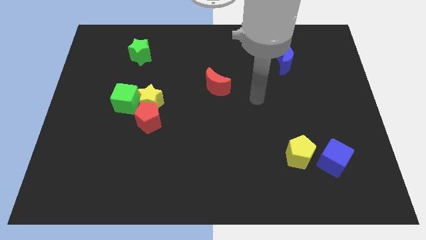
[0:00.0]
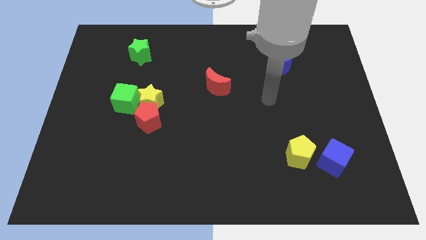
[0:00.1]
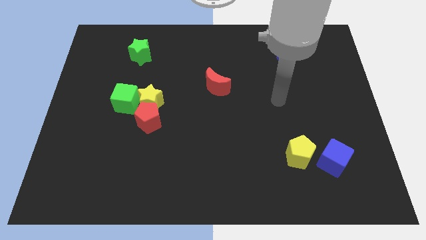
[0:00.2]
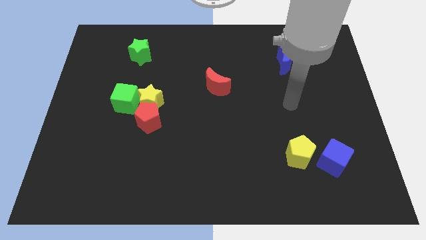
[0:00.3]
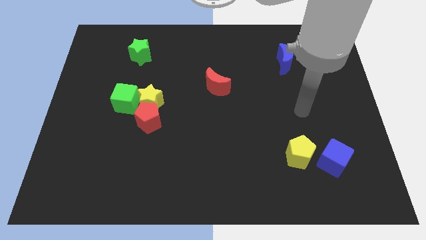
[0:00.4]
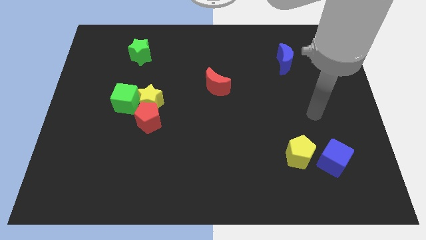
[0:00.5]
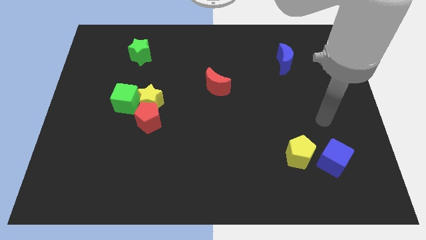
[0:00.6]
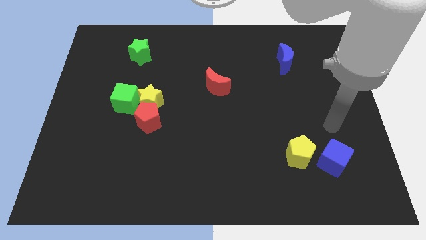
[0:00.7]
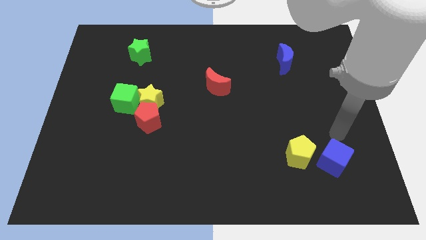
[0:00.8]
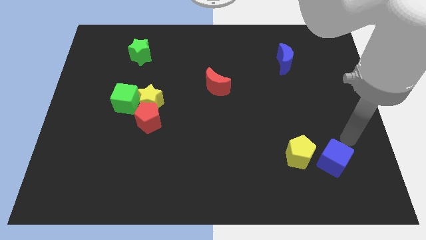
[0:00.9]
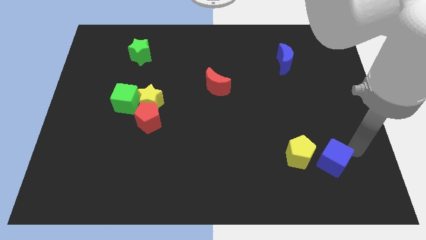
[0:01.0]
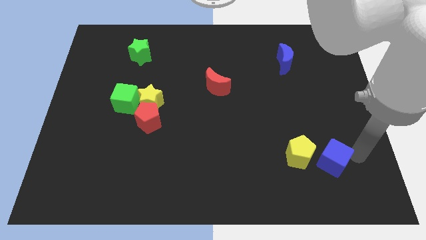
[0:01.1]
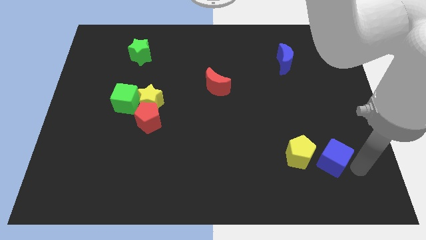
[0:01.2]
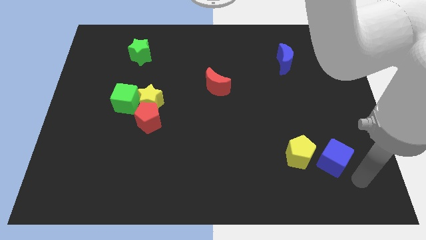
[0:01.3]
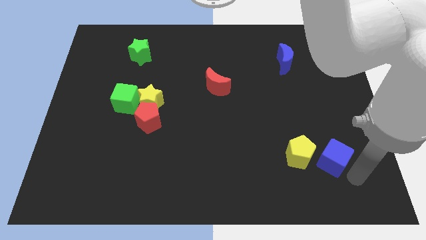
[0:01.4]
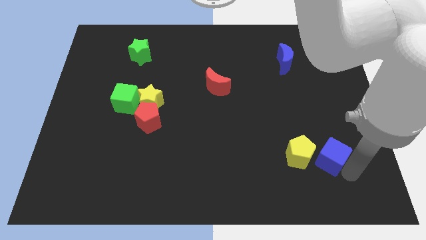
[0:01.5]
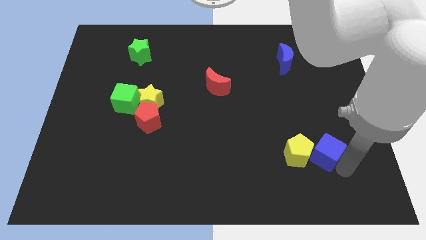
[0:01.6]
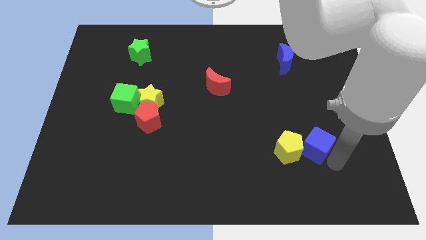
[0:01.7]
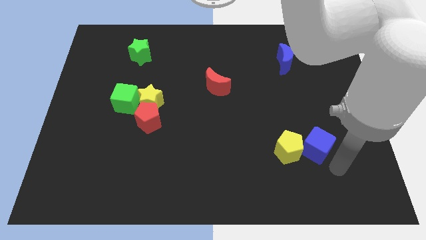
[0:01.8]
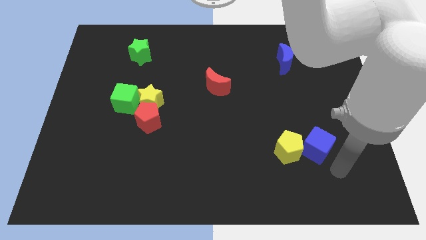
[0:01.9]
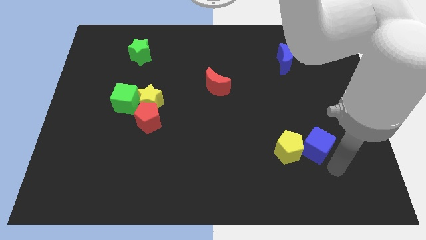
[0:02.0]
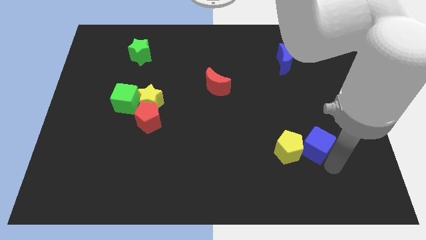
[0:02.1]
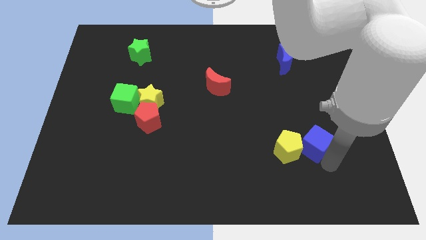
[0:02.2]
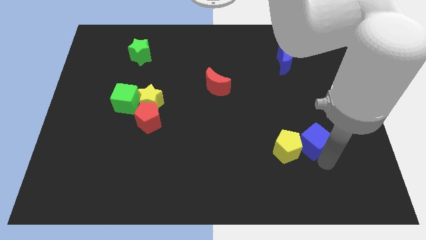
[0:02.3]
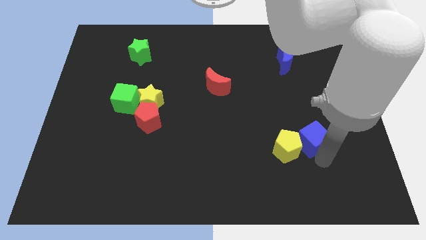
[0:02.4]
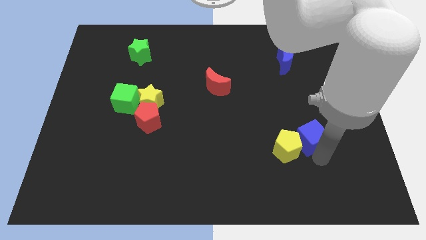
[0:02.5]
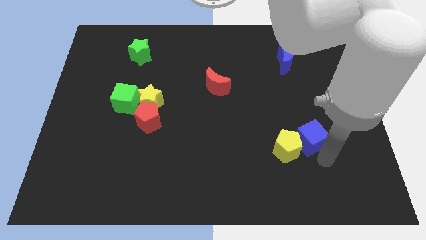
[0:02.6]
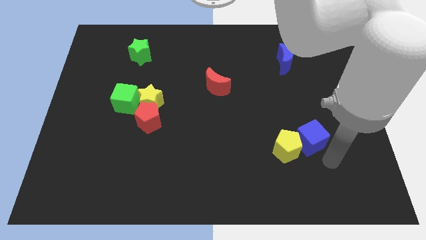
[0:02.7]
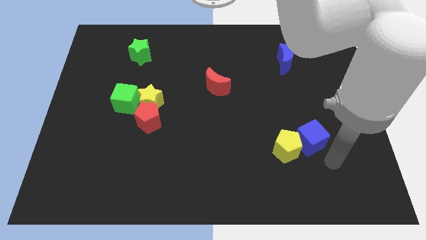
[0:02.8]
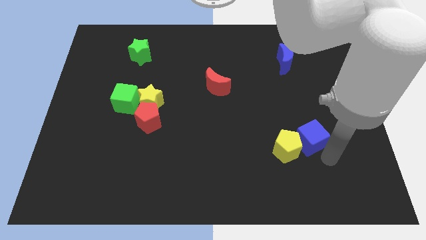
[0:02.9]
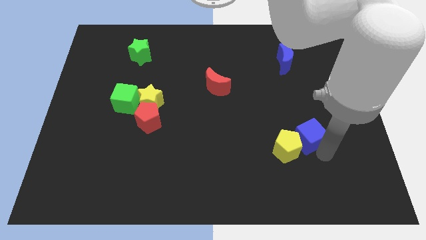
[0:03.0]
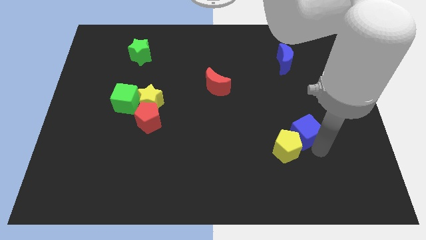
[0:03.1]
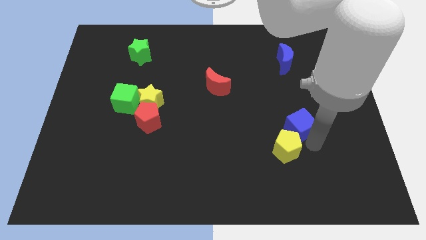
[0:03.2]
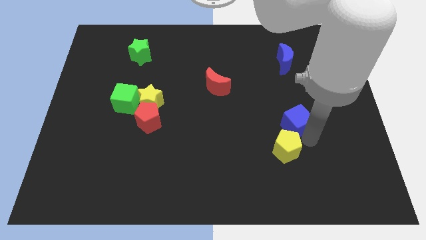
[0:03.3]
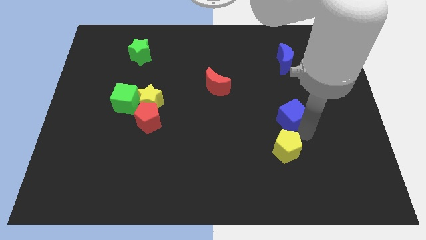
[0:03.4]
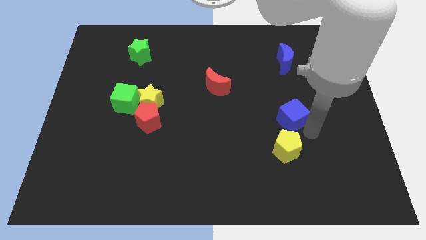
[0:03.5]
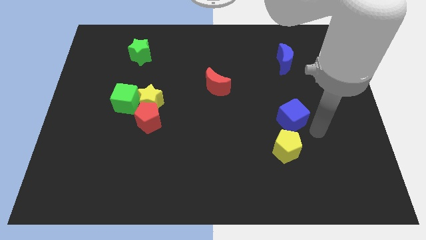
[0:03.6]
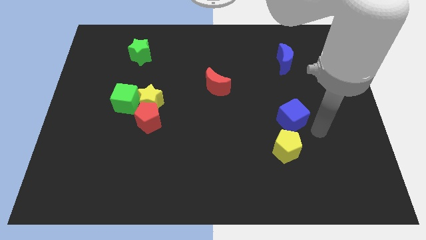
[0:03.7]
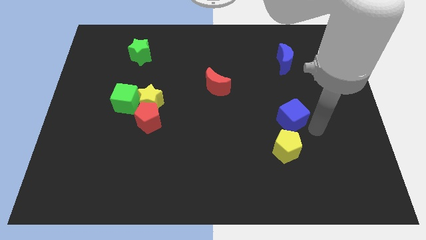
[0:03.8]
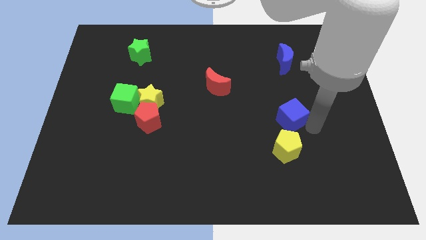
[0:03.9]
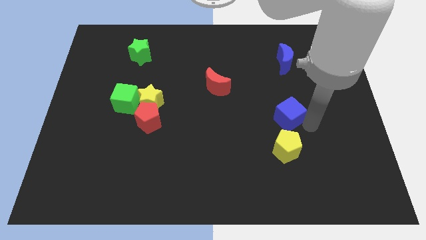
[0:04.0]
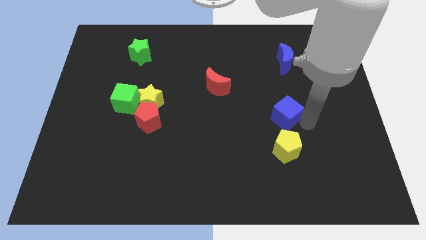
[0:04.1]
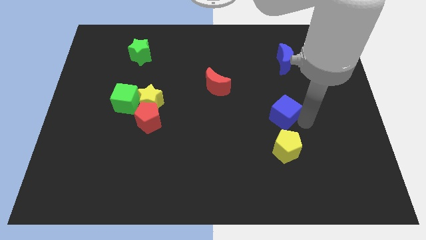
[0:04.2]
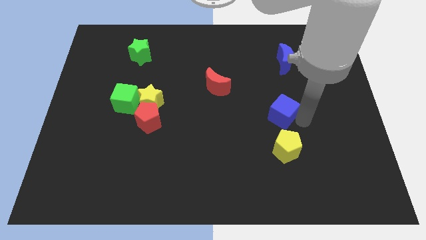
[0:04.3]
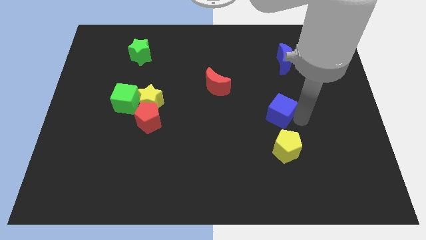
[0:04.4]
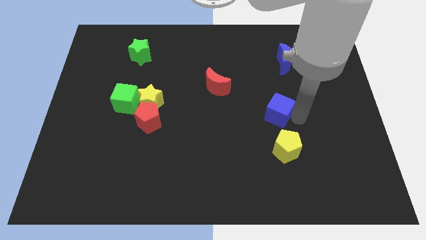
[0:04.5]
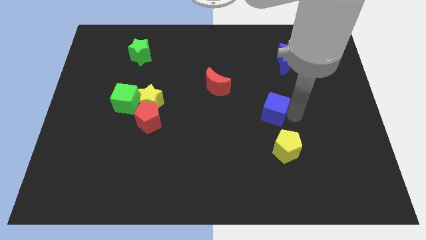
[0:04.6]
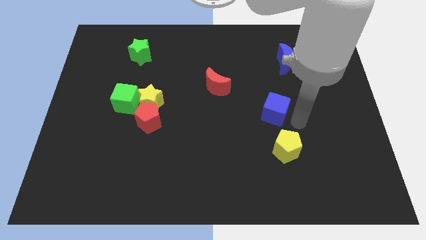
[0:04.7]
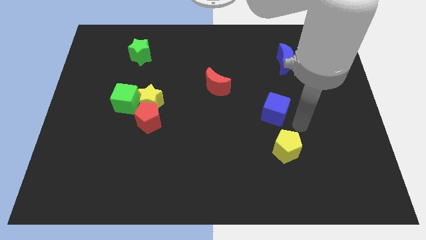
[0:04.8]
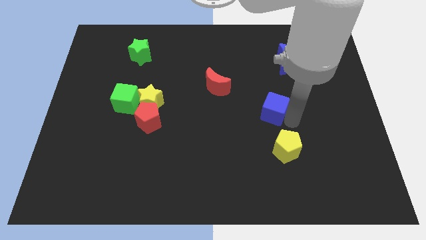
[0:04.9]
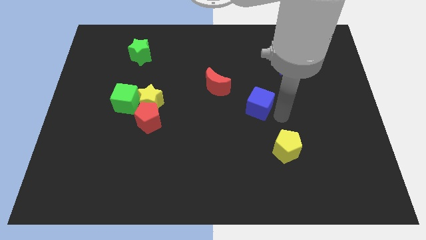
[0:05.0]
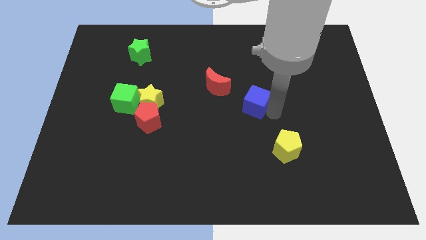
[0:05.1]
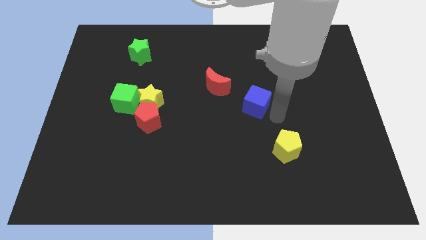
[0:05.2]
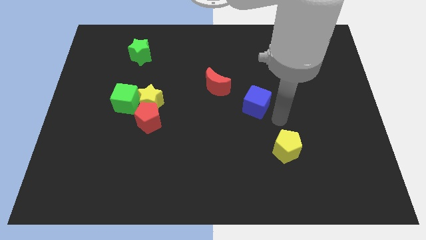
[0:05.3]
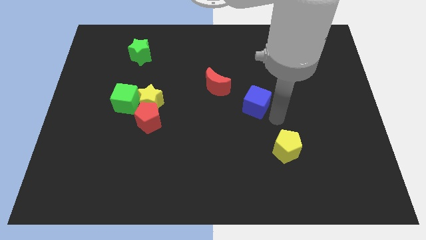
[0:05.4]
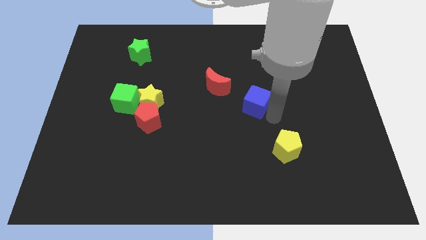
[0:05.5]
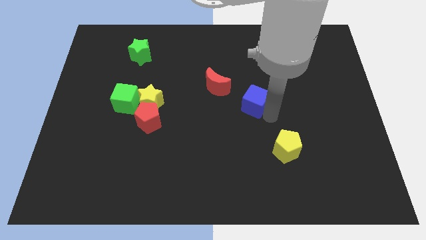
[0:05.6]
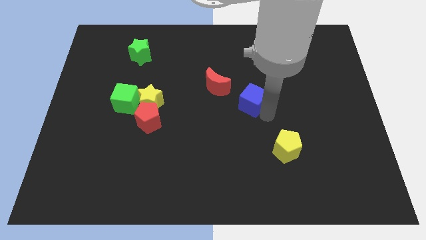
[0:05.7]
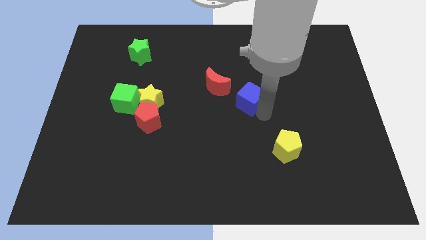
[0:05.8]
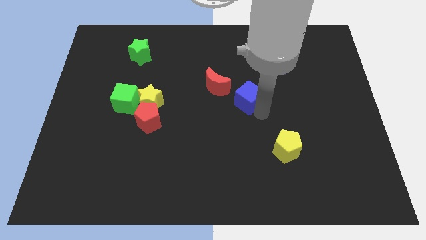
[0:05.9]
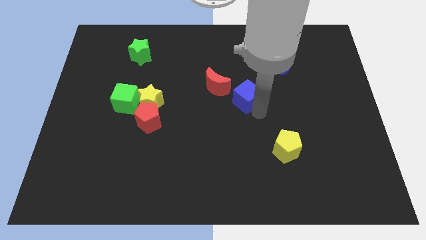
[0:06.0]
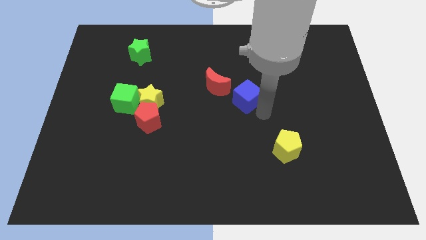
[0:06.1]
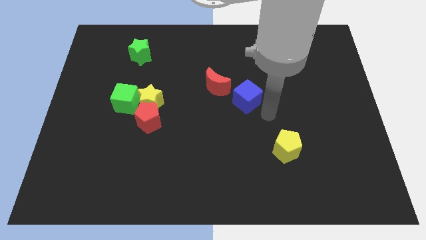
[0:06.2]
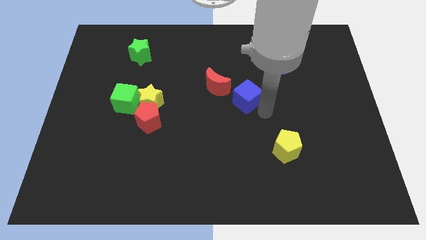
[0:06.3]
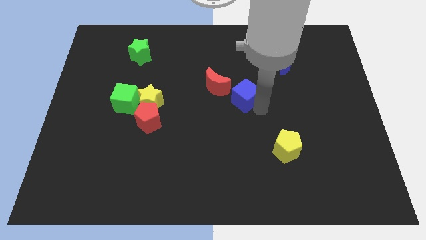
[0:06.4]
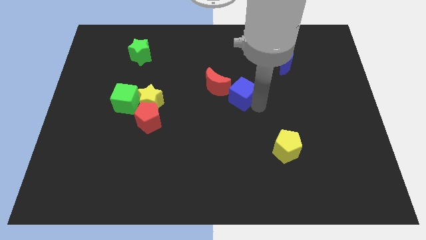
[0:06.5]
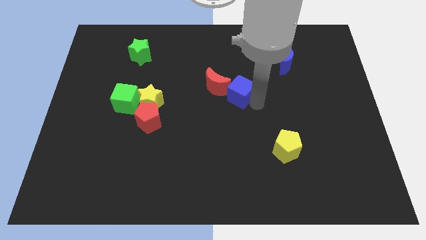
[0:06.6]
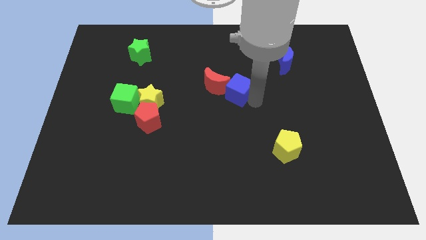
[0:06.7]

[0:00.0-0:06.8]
move the blue cube next to the red moon

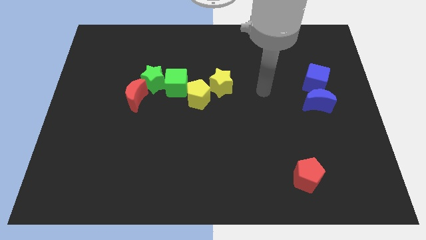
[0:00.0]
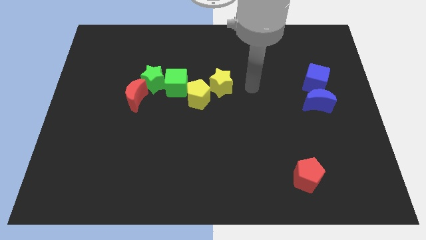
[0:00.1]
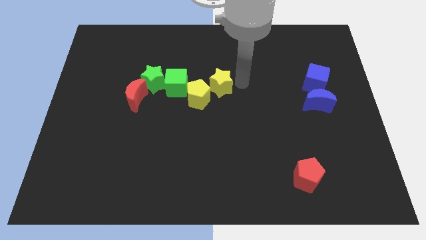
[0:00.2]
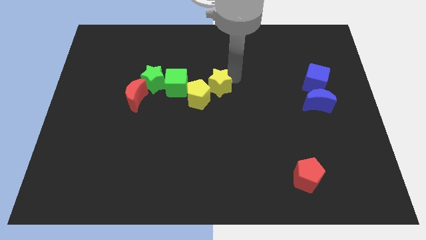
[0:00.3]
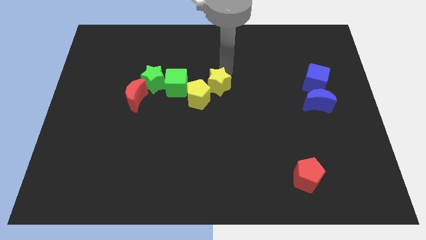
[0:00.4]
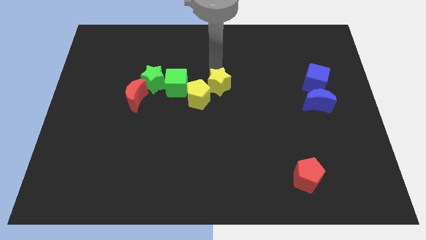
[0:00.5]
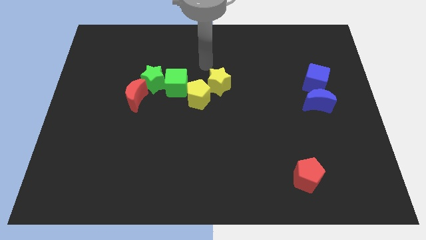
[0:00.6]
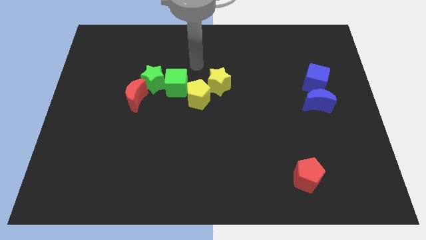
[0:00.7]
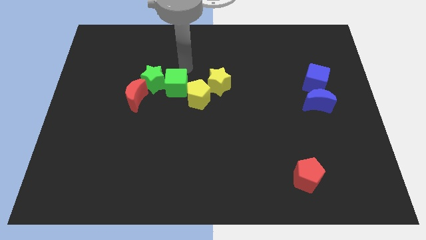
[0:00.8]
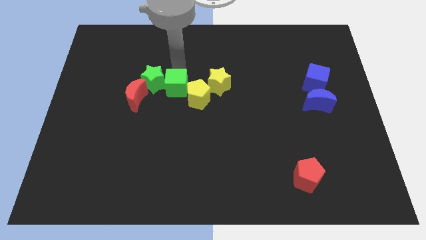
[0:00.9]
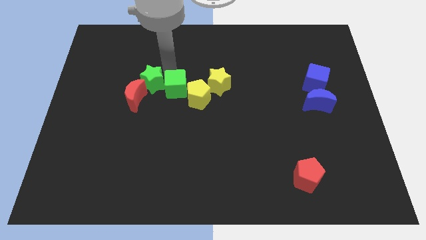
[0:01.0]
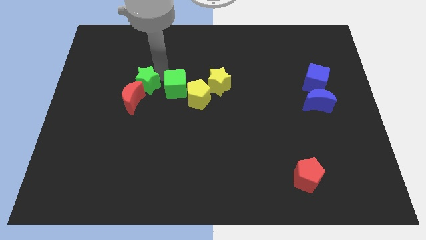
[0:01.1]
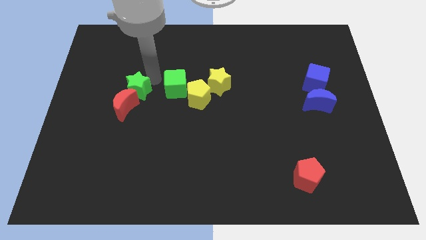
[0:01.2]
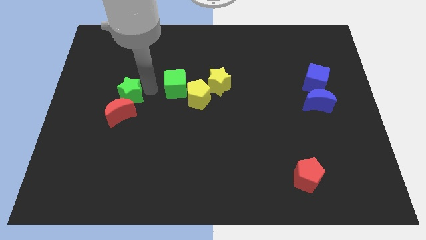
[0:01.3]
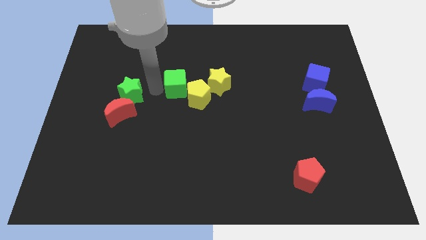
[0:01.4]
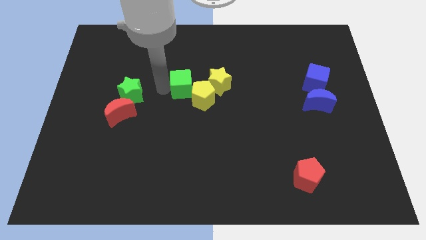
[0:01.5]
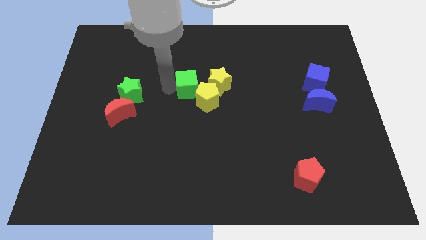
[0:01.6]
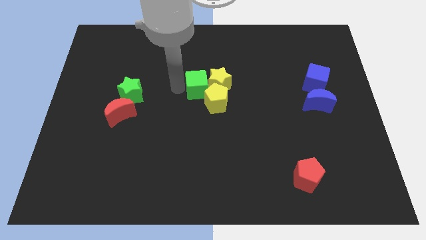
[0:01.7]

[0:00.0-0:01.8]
move the green cube to the yellow star
